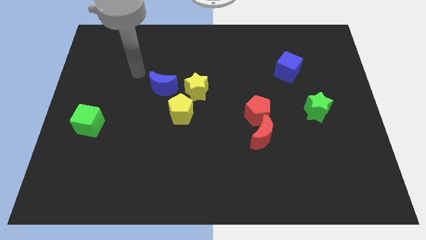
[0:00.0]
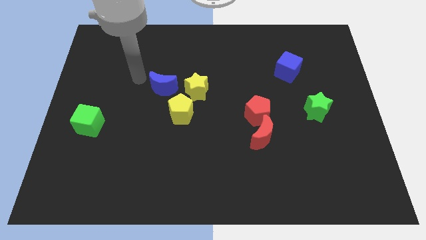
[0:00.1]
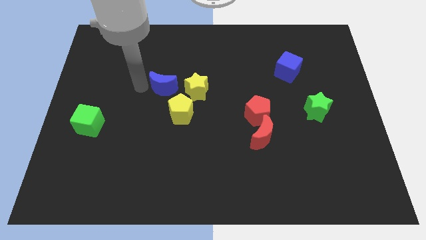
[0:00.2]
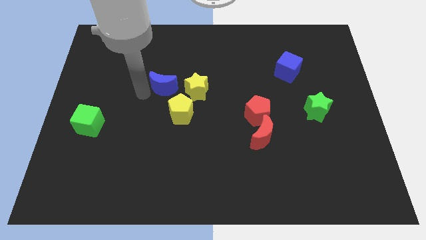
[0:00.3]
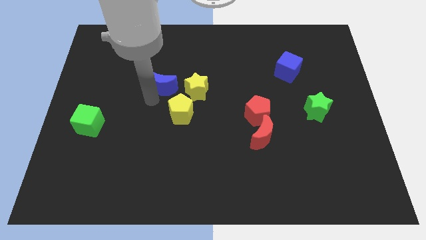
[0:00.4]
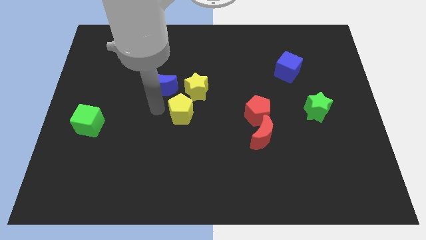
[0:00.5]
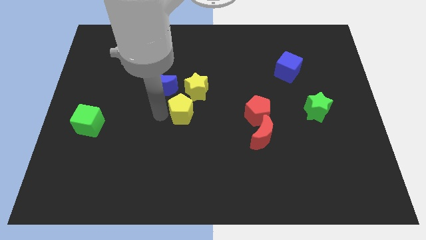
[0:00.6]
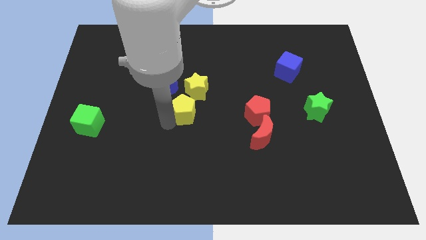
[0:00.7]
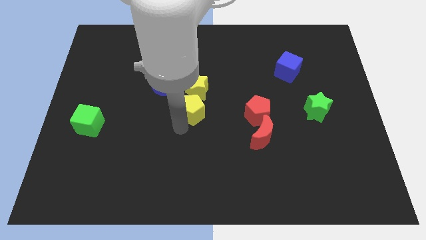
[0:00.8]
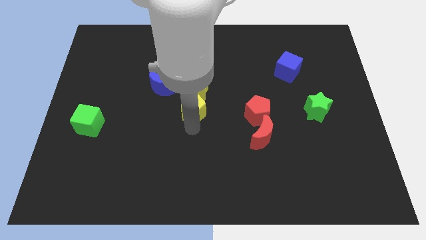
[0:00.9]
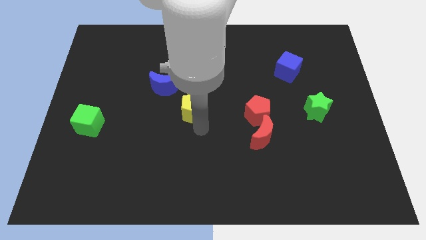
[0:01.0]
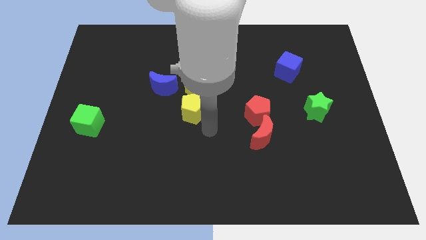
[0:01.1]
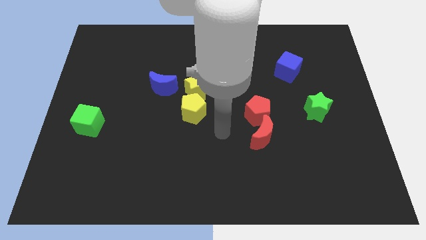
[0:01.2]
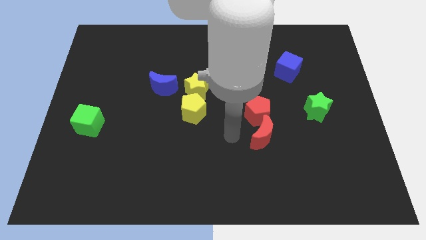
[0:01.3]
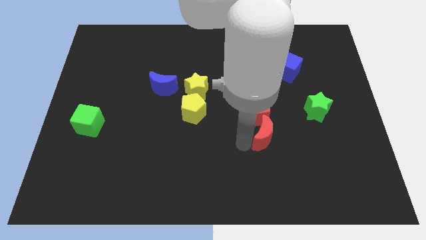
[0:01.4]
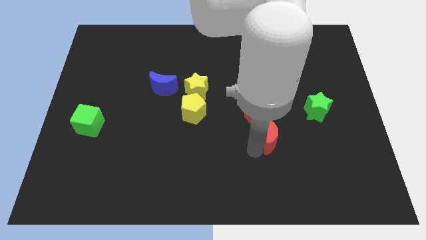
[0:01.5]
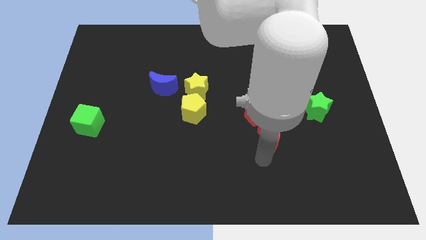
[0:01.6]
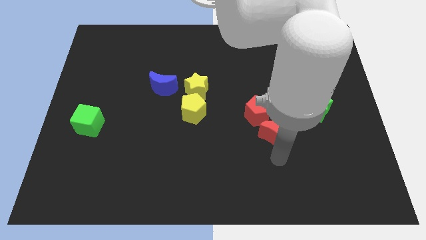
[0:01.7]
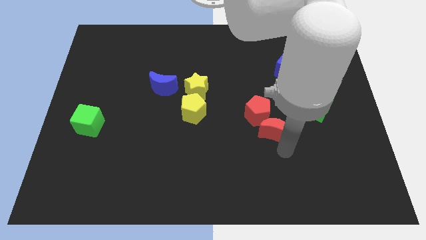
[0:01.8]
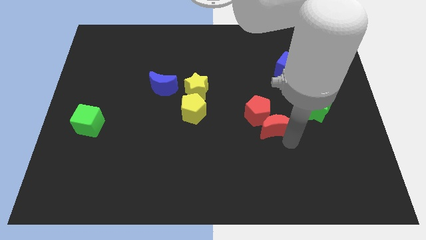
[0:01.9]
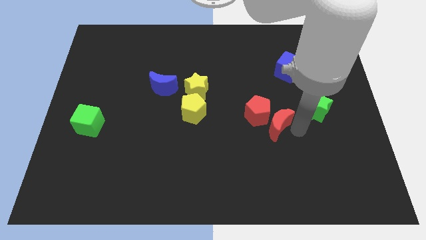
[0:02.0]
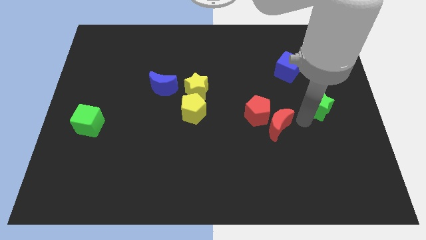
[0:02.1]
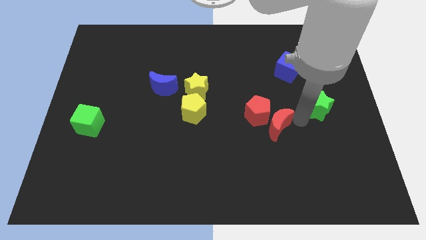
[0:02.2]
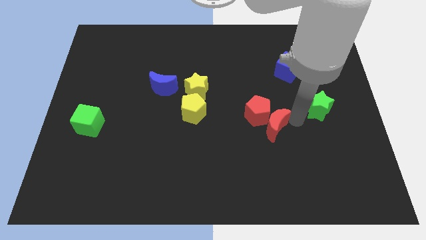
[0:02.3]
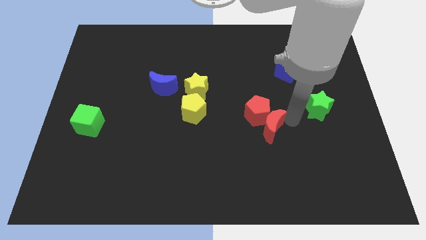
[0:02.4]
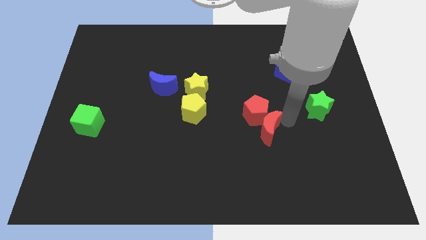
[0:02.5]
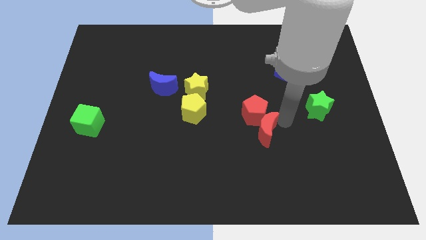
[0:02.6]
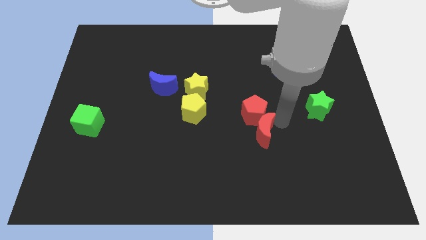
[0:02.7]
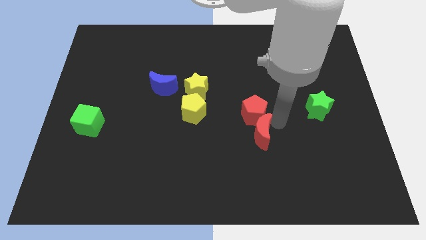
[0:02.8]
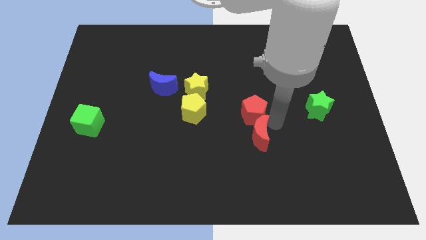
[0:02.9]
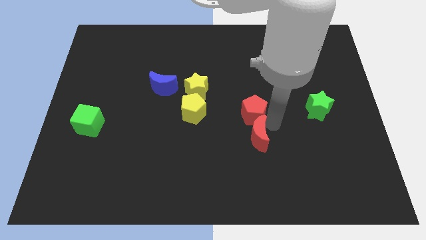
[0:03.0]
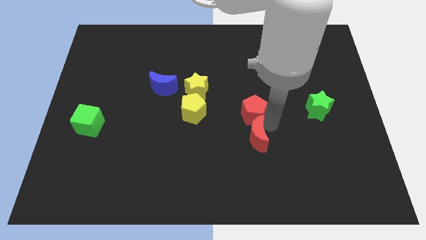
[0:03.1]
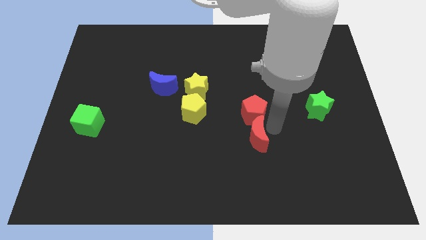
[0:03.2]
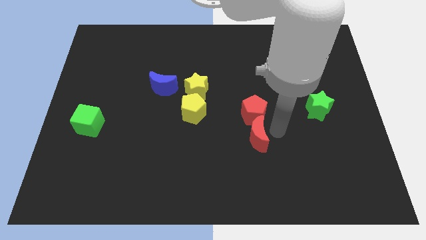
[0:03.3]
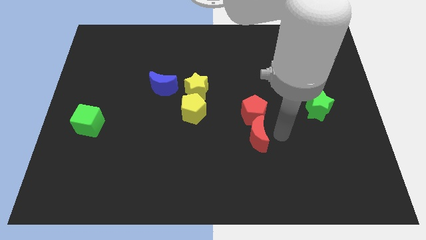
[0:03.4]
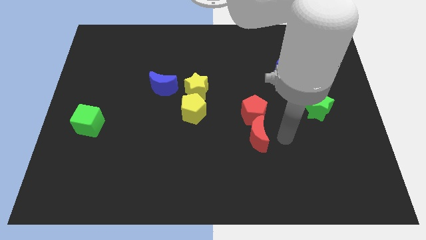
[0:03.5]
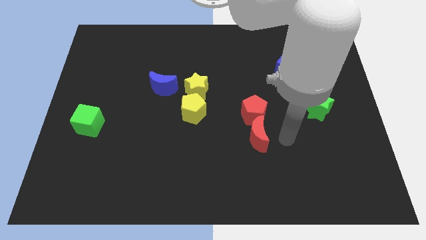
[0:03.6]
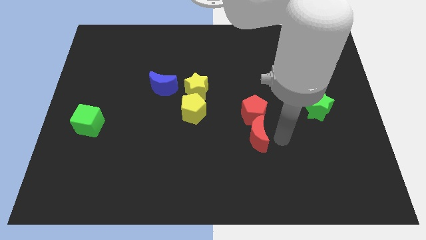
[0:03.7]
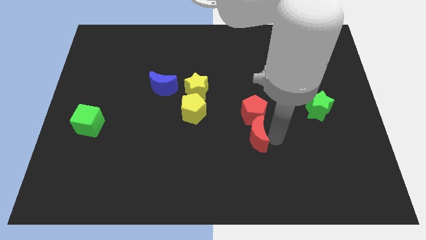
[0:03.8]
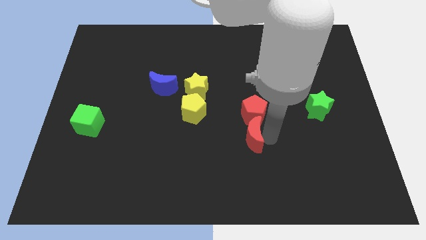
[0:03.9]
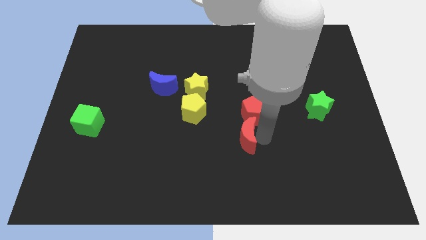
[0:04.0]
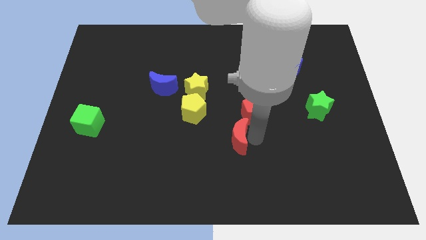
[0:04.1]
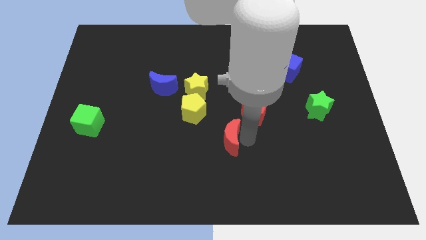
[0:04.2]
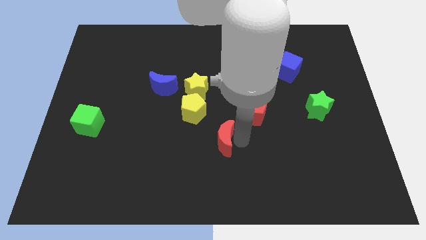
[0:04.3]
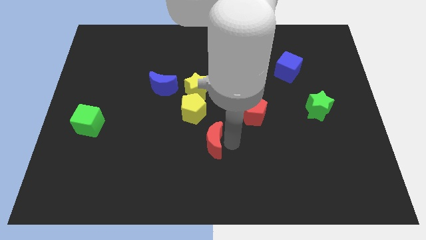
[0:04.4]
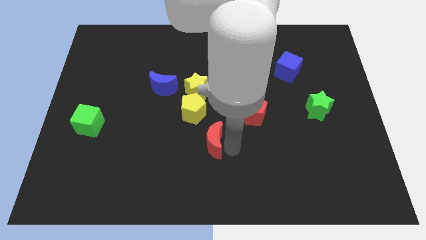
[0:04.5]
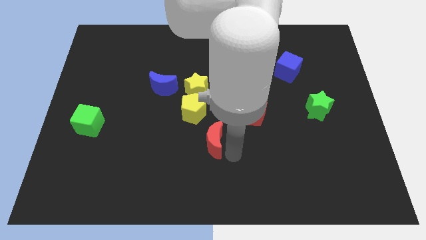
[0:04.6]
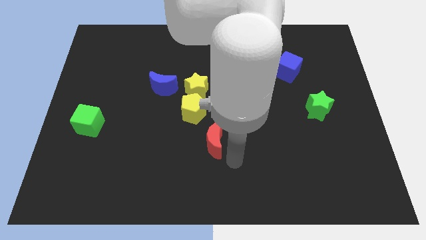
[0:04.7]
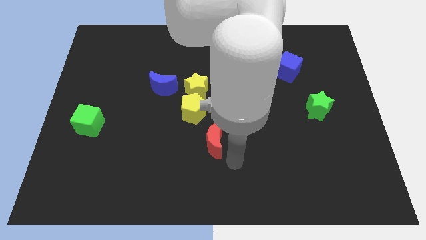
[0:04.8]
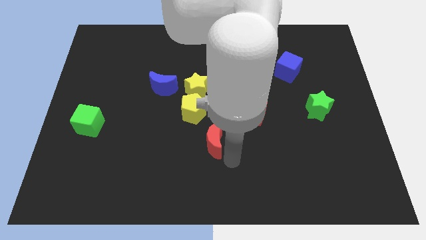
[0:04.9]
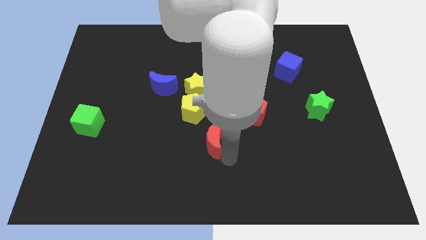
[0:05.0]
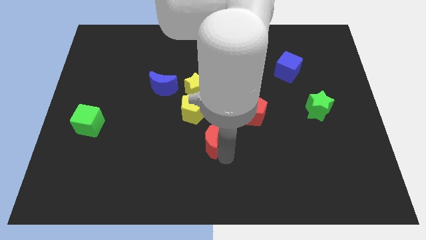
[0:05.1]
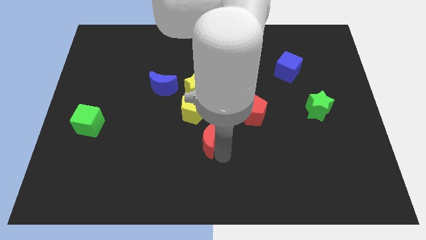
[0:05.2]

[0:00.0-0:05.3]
push the red moon to the bottom of the yellow star
